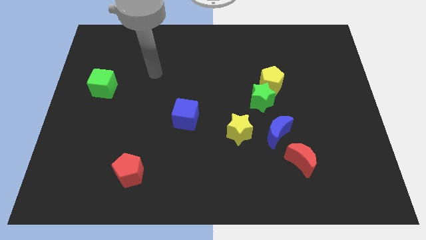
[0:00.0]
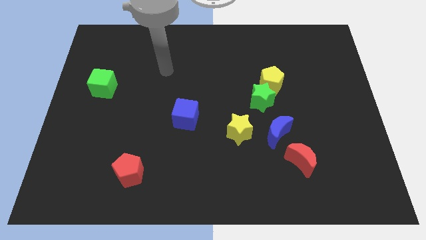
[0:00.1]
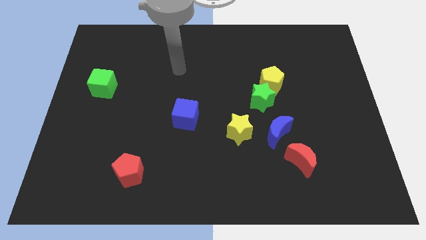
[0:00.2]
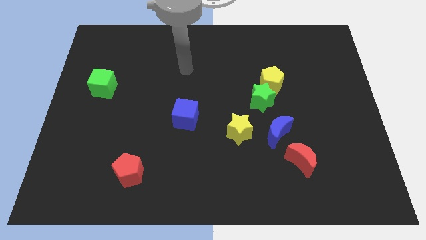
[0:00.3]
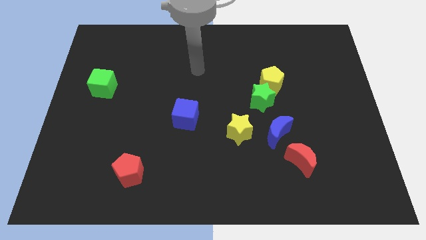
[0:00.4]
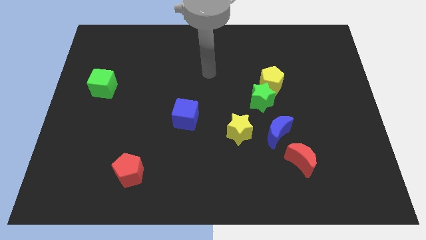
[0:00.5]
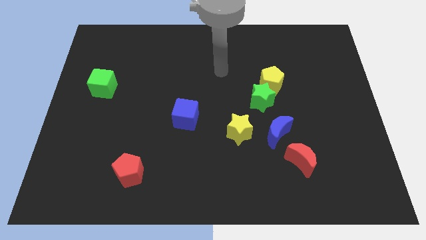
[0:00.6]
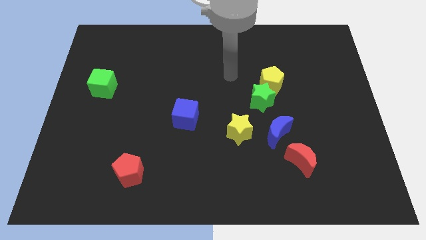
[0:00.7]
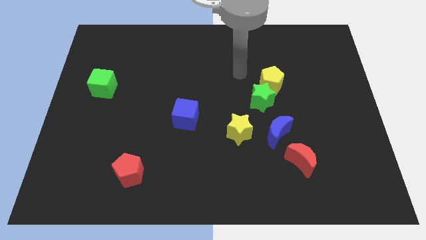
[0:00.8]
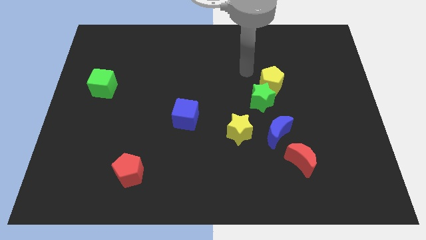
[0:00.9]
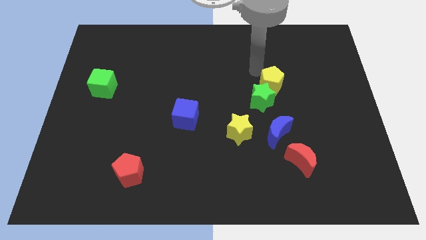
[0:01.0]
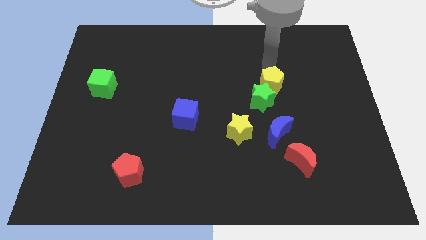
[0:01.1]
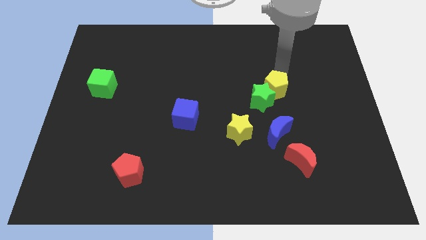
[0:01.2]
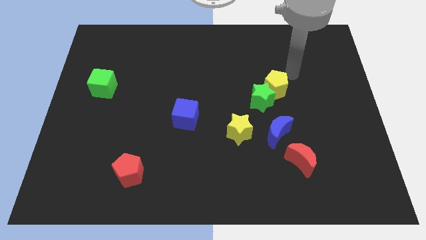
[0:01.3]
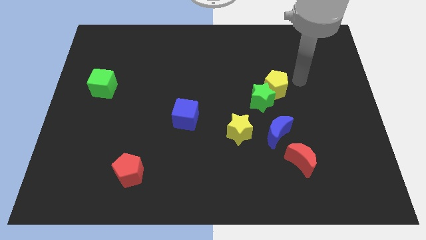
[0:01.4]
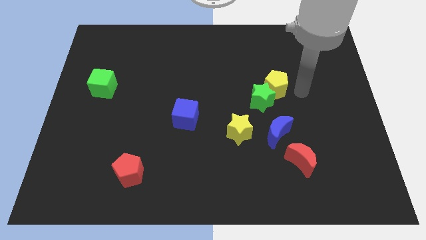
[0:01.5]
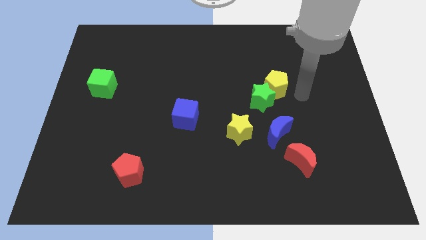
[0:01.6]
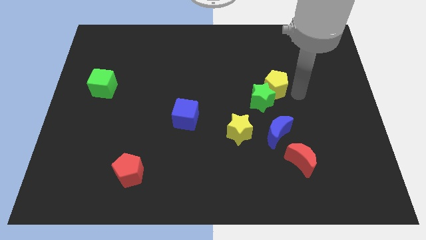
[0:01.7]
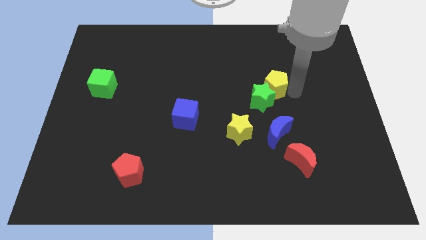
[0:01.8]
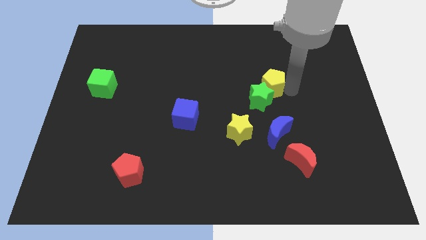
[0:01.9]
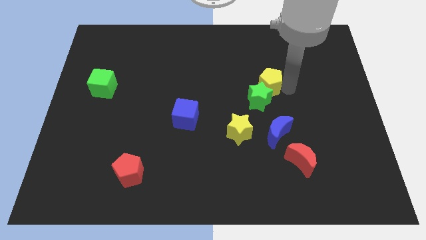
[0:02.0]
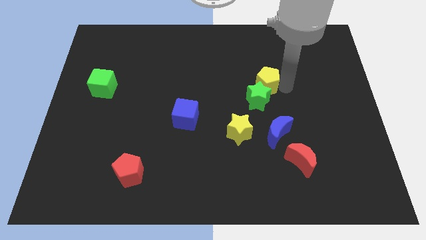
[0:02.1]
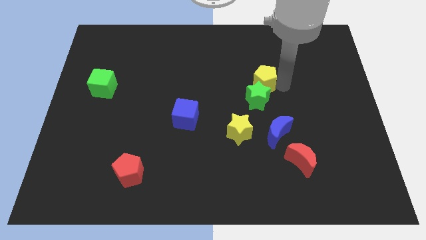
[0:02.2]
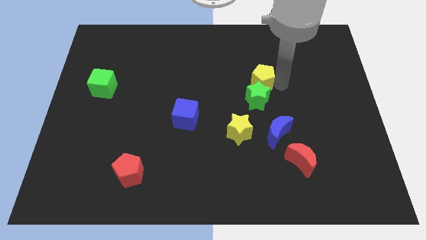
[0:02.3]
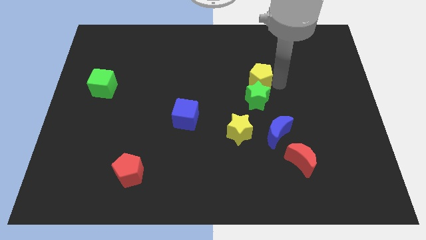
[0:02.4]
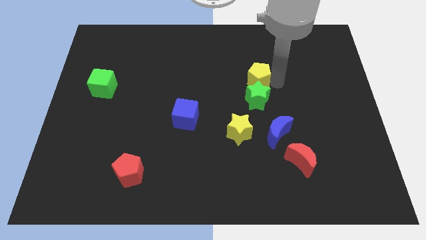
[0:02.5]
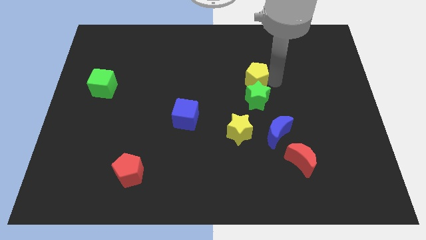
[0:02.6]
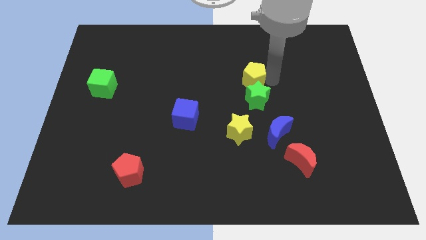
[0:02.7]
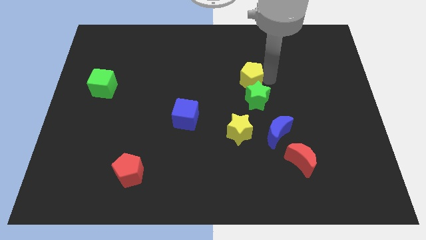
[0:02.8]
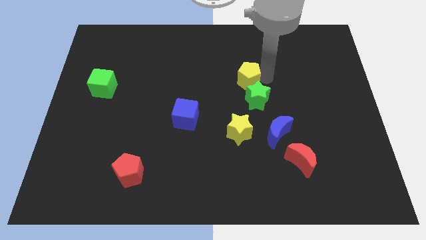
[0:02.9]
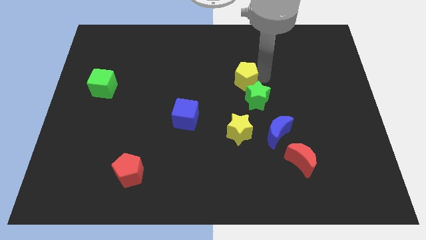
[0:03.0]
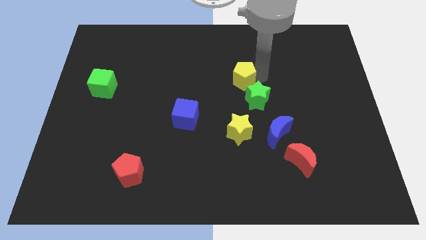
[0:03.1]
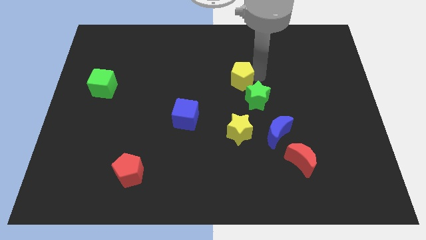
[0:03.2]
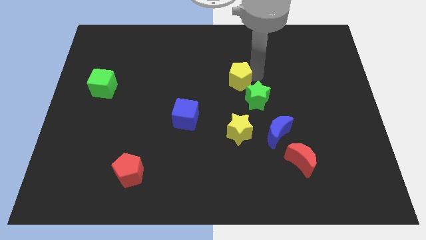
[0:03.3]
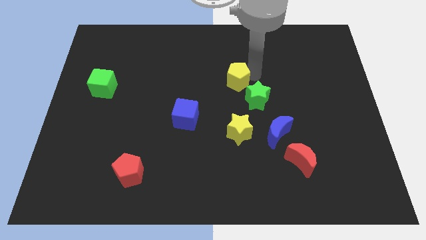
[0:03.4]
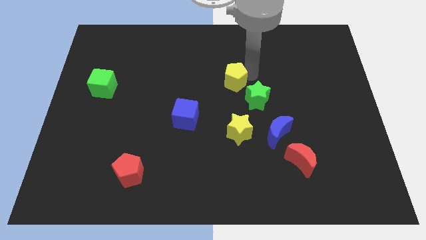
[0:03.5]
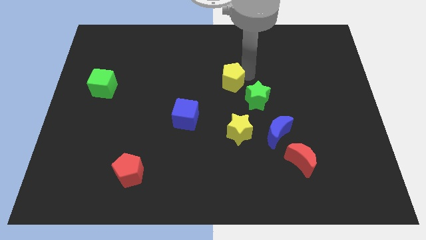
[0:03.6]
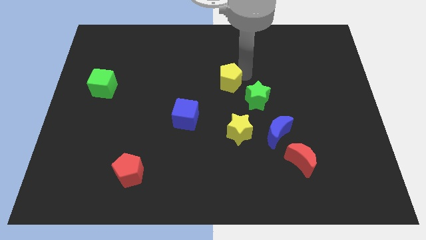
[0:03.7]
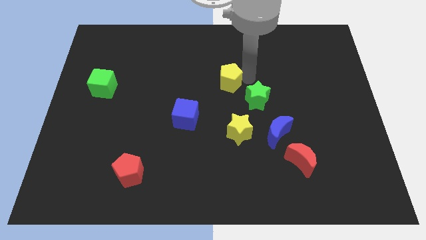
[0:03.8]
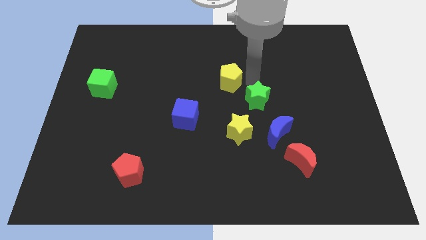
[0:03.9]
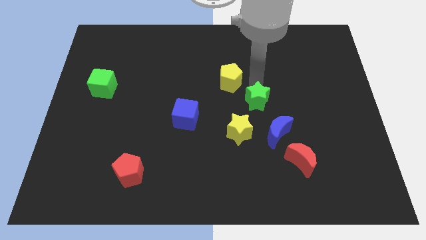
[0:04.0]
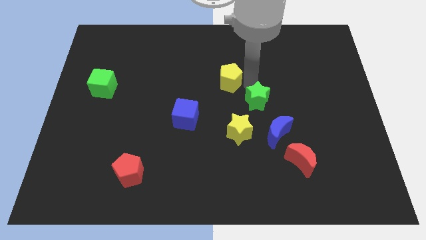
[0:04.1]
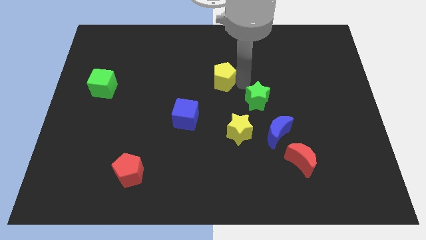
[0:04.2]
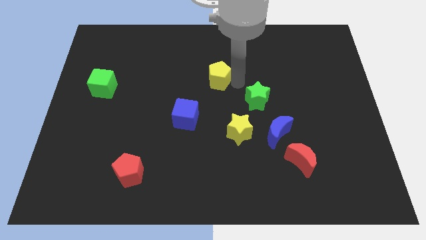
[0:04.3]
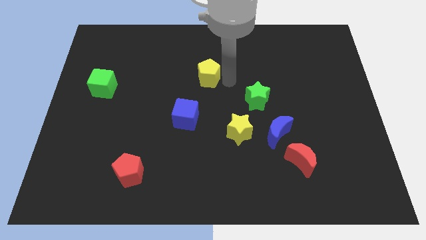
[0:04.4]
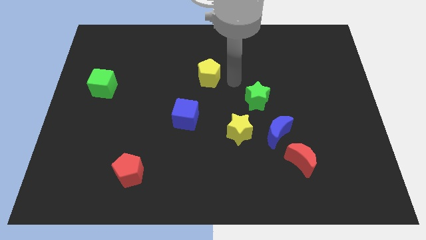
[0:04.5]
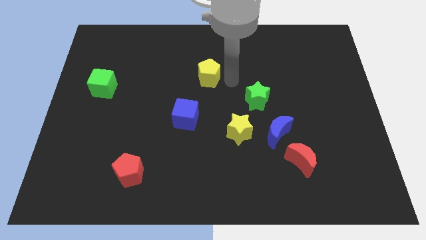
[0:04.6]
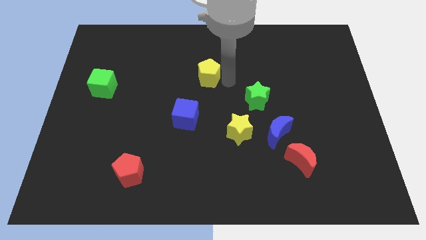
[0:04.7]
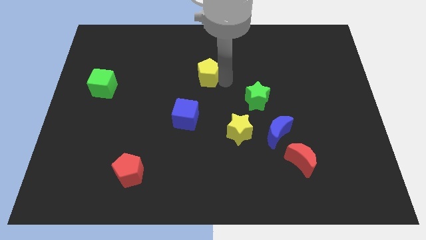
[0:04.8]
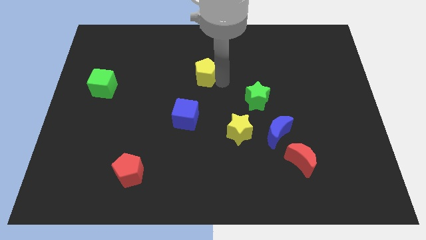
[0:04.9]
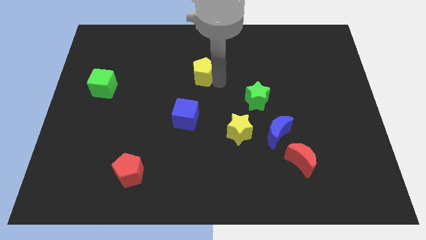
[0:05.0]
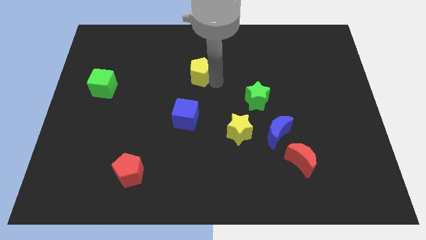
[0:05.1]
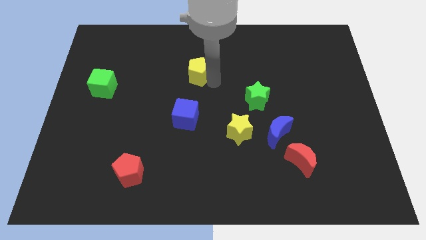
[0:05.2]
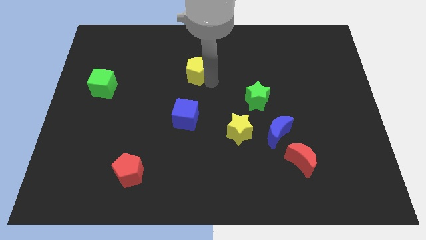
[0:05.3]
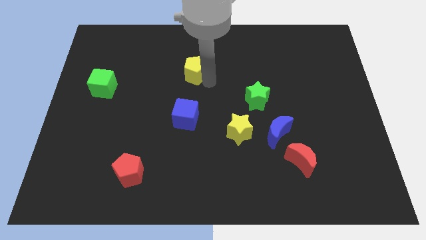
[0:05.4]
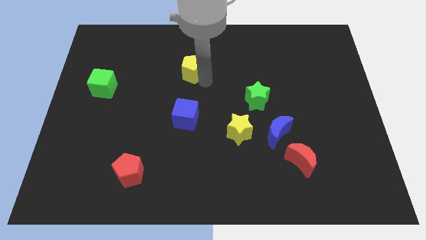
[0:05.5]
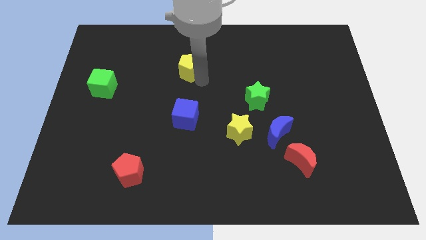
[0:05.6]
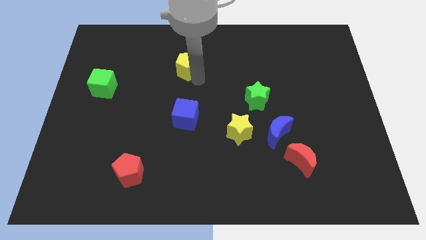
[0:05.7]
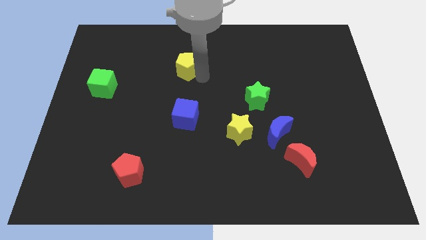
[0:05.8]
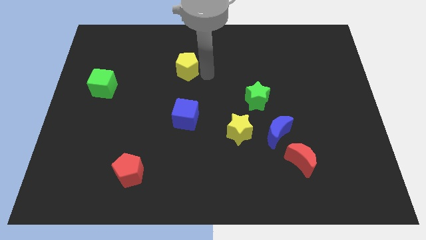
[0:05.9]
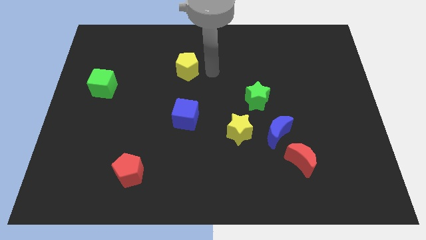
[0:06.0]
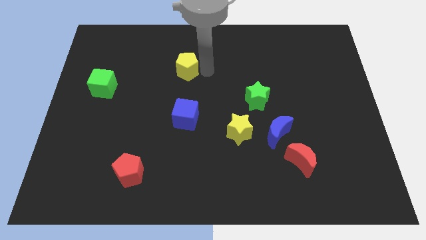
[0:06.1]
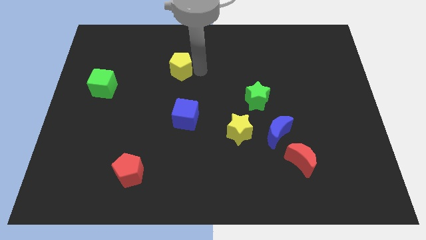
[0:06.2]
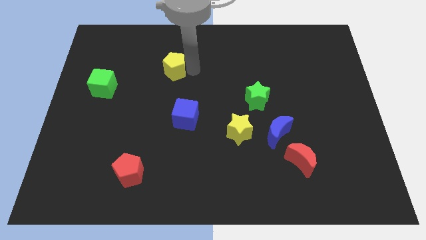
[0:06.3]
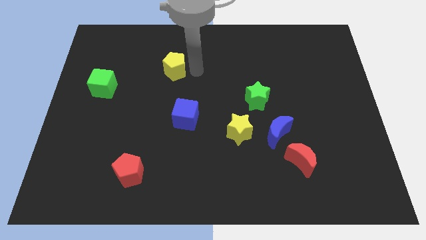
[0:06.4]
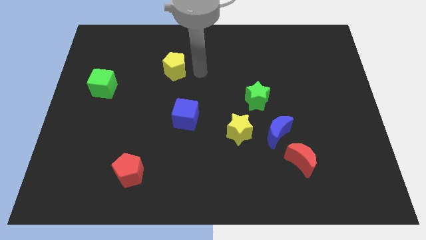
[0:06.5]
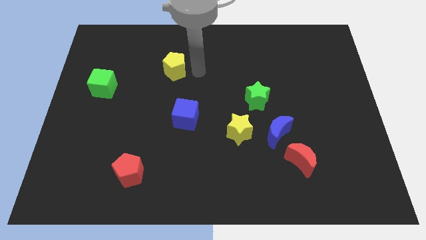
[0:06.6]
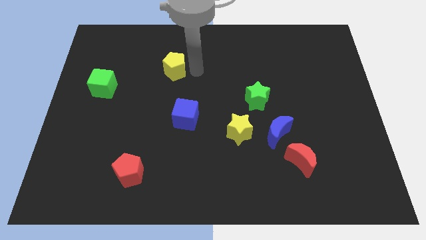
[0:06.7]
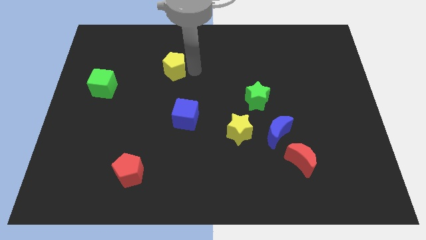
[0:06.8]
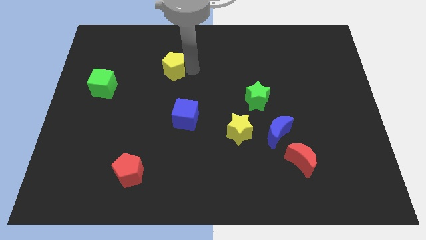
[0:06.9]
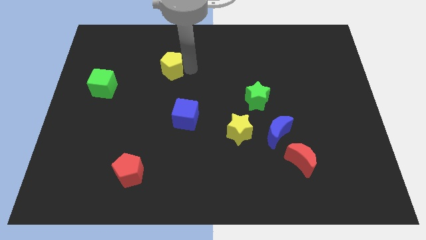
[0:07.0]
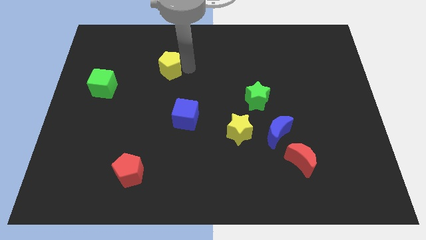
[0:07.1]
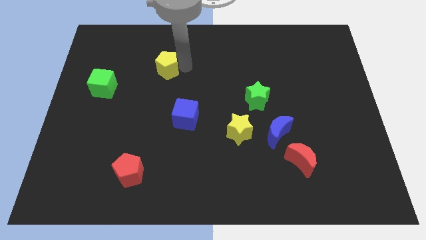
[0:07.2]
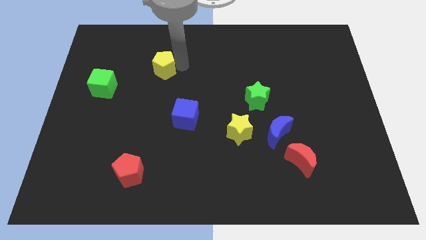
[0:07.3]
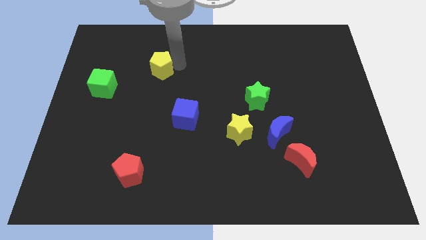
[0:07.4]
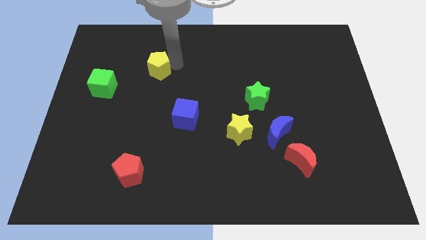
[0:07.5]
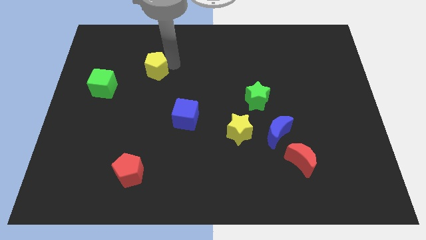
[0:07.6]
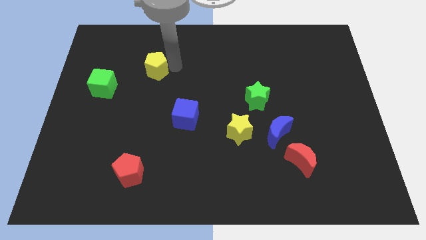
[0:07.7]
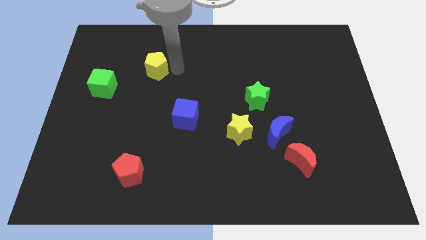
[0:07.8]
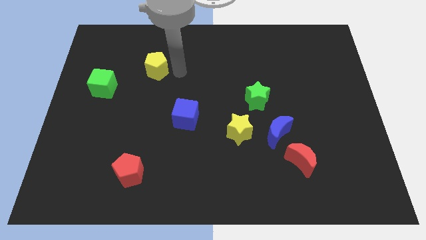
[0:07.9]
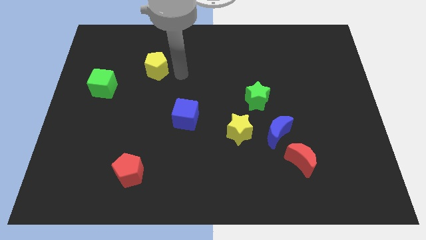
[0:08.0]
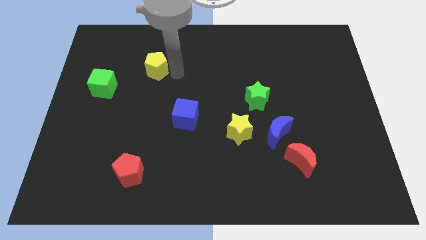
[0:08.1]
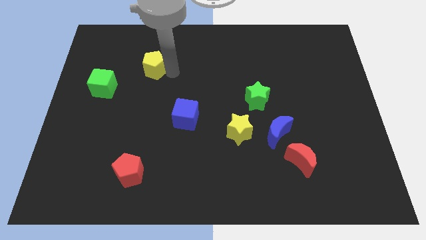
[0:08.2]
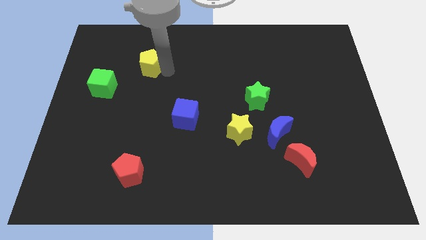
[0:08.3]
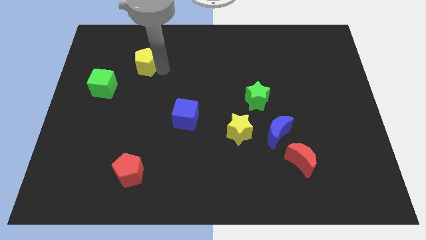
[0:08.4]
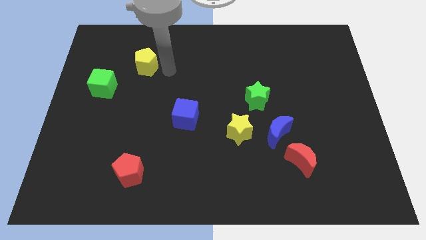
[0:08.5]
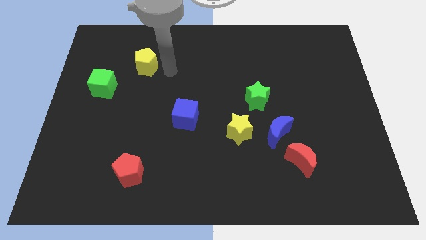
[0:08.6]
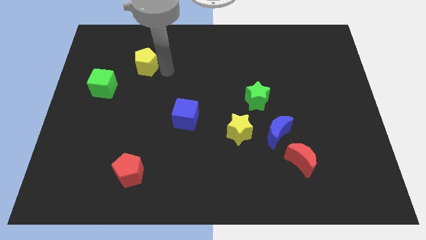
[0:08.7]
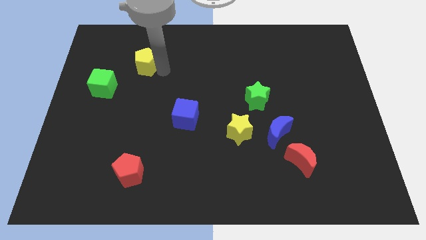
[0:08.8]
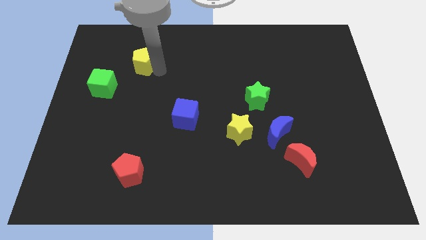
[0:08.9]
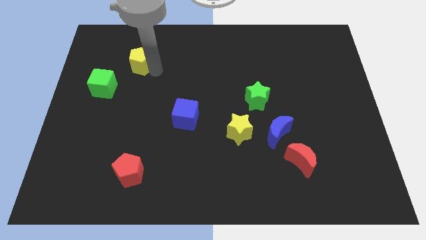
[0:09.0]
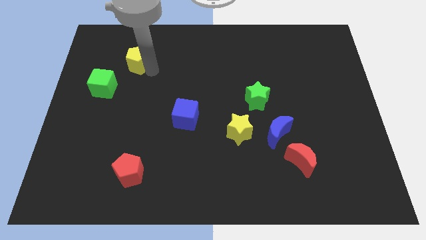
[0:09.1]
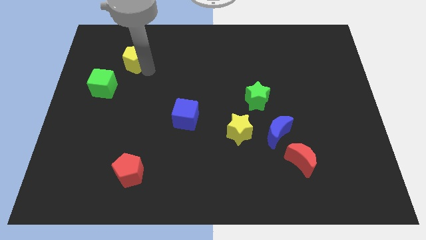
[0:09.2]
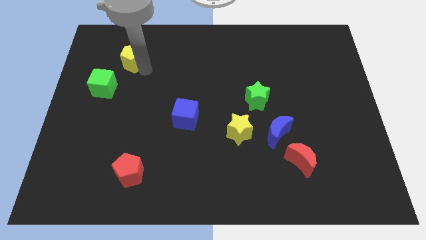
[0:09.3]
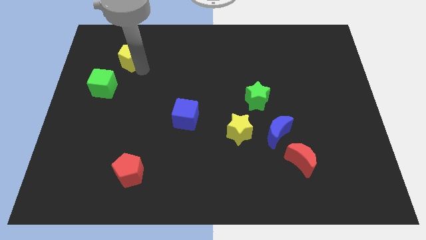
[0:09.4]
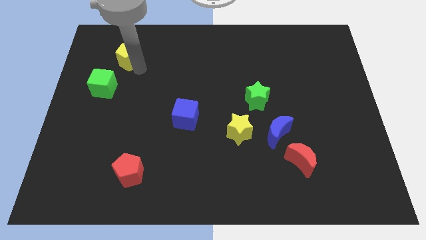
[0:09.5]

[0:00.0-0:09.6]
push the yellow pentagon to the top of the green cube
